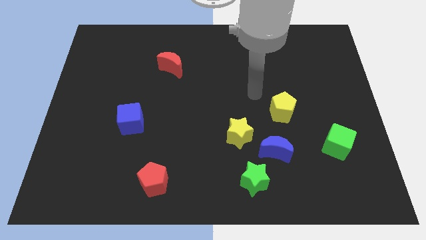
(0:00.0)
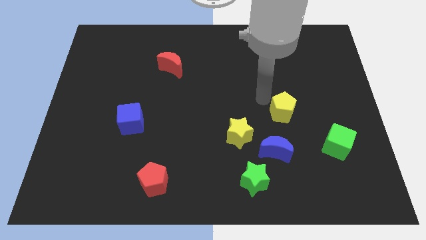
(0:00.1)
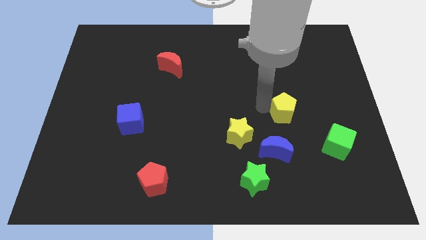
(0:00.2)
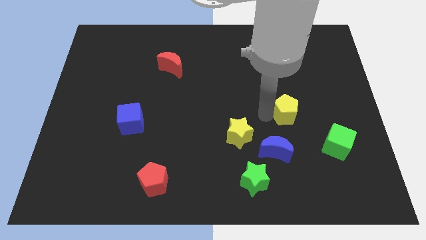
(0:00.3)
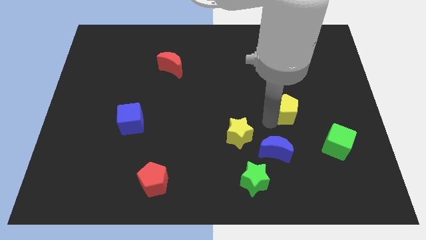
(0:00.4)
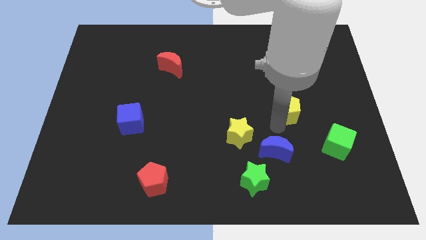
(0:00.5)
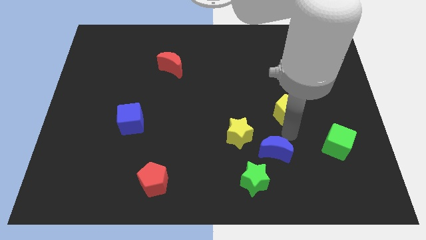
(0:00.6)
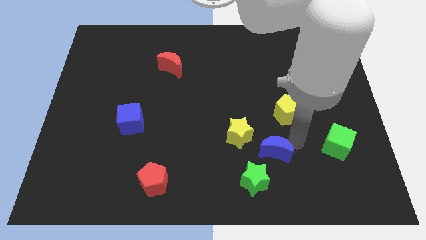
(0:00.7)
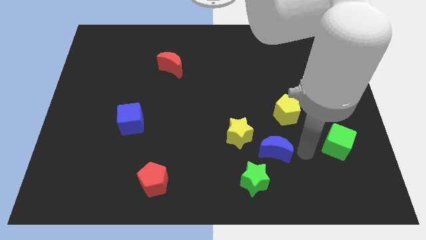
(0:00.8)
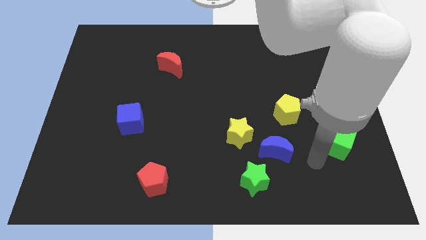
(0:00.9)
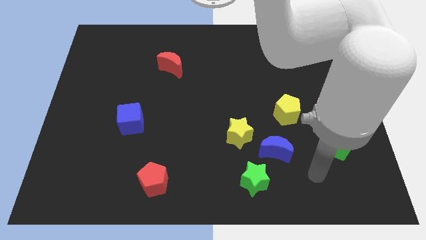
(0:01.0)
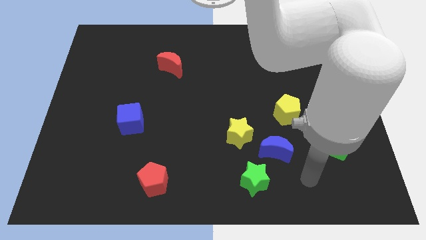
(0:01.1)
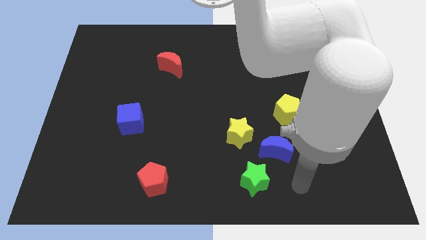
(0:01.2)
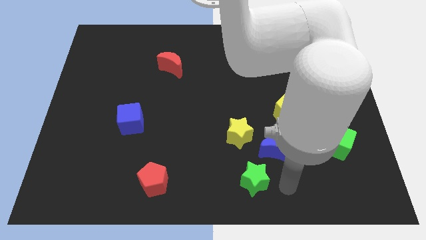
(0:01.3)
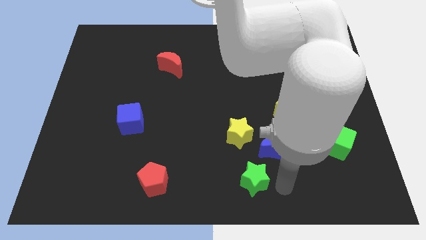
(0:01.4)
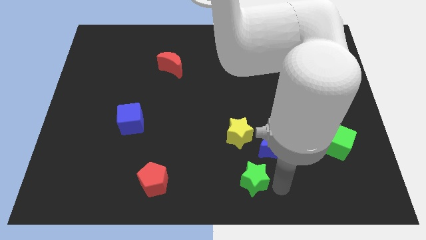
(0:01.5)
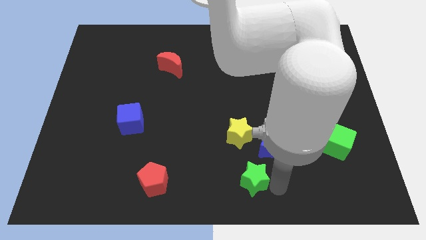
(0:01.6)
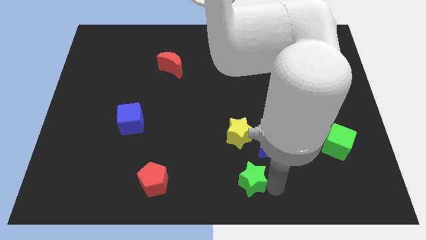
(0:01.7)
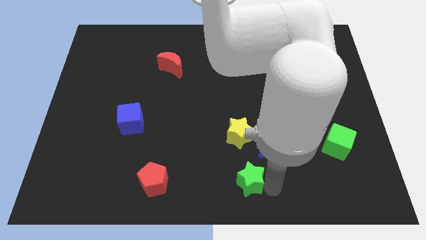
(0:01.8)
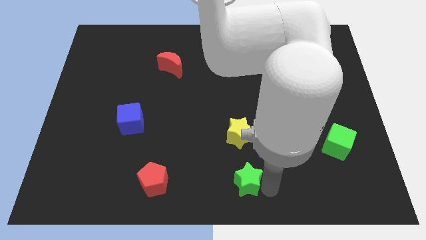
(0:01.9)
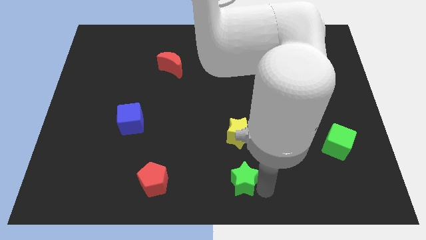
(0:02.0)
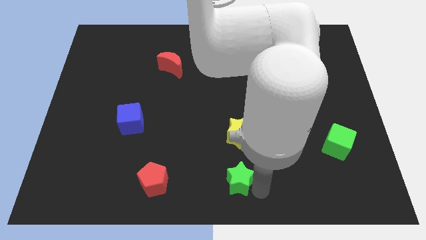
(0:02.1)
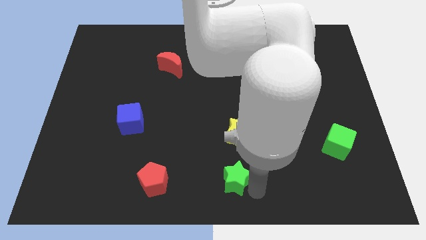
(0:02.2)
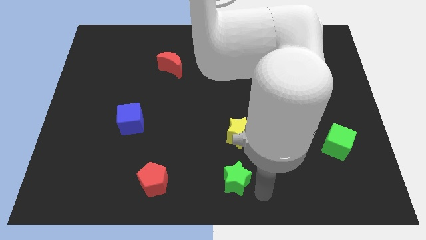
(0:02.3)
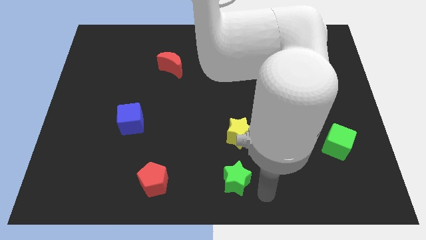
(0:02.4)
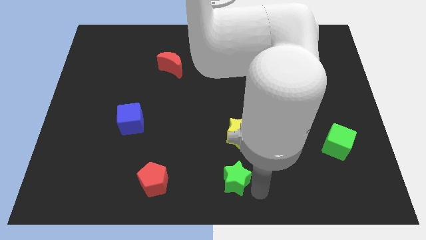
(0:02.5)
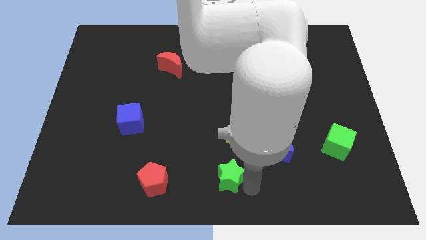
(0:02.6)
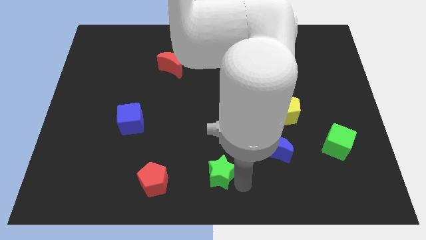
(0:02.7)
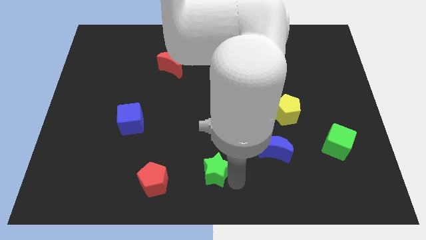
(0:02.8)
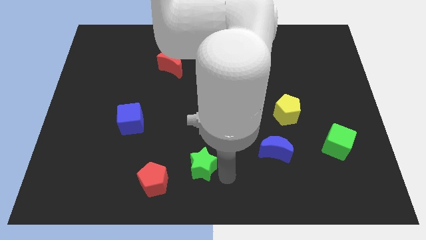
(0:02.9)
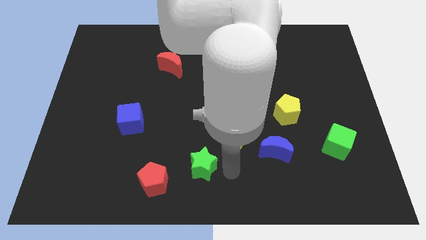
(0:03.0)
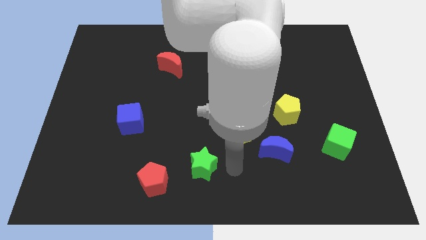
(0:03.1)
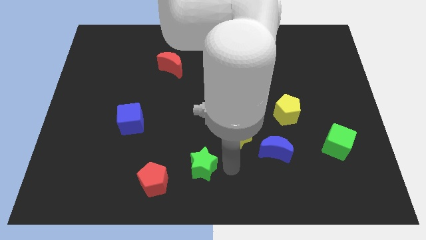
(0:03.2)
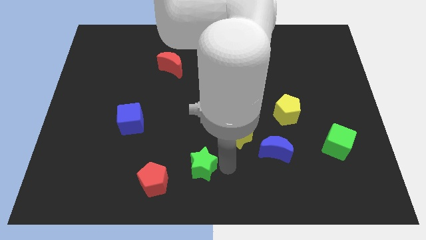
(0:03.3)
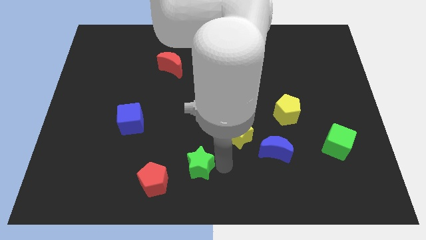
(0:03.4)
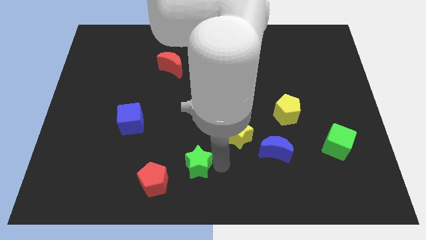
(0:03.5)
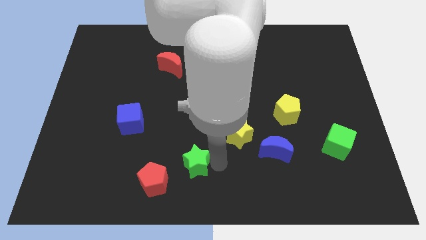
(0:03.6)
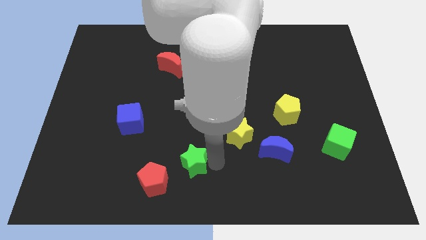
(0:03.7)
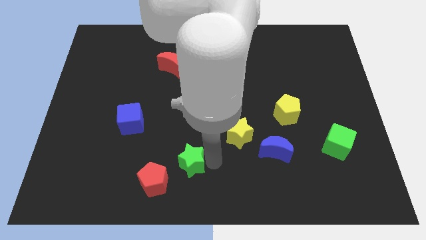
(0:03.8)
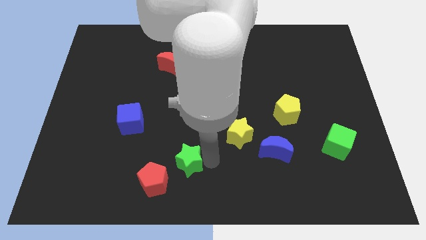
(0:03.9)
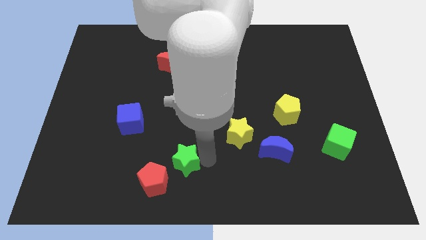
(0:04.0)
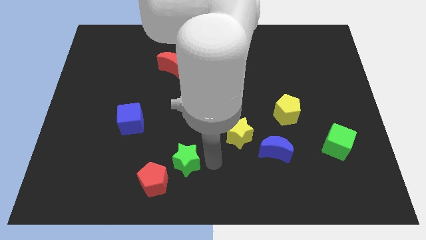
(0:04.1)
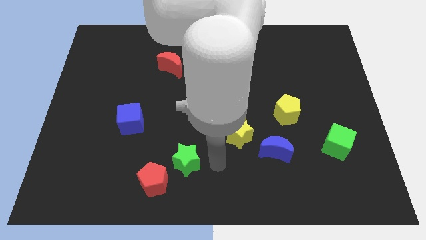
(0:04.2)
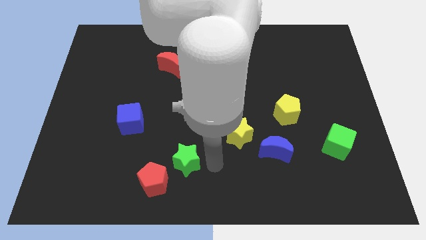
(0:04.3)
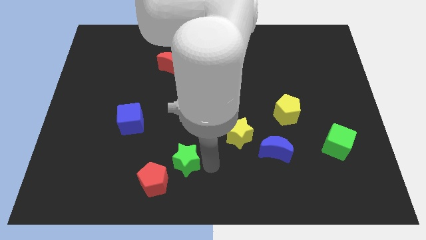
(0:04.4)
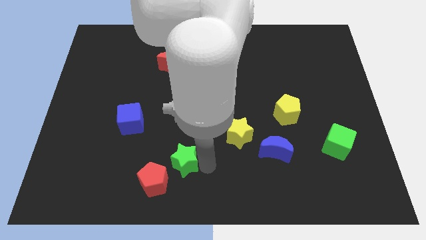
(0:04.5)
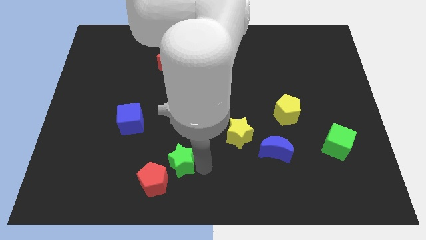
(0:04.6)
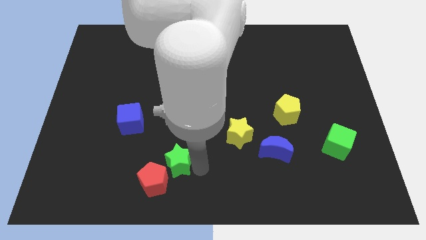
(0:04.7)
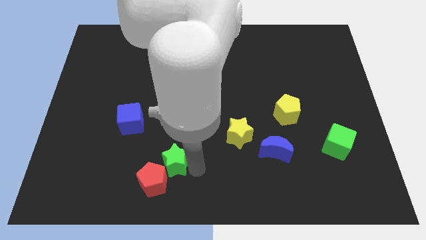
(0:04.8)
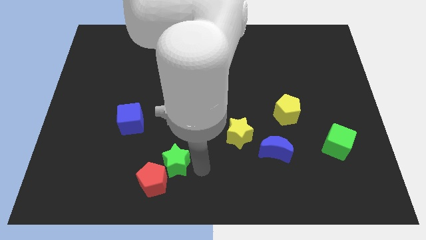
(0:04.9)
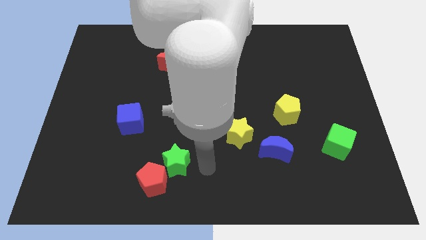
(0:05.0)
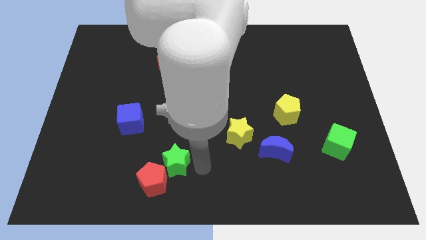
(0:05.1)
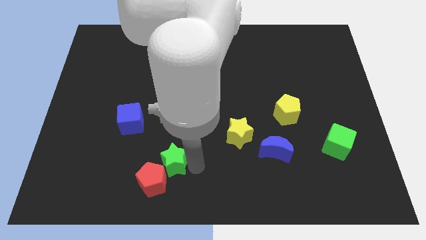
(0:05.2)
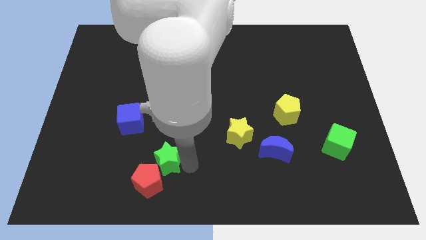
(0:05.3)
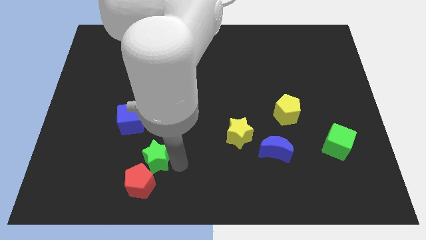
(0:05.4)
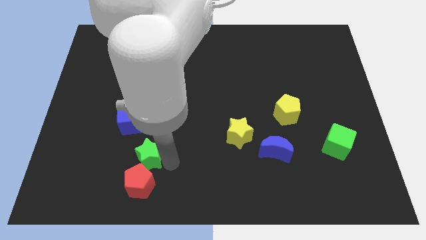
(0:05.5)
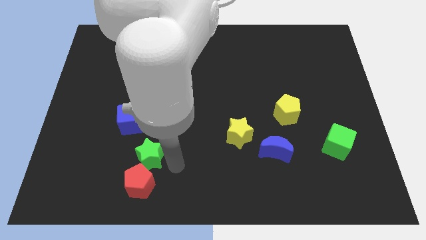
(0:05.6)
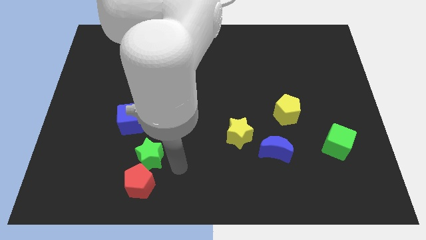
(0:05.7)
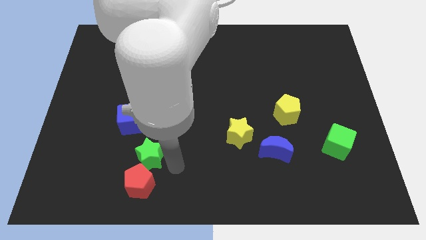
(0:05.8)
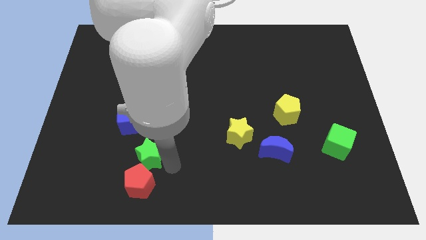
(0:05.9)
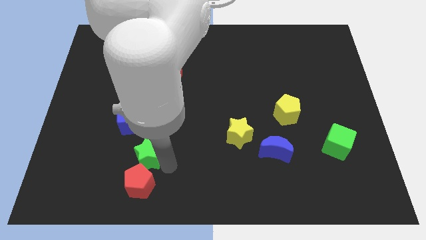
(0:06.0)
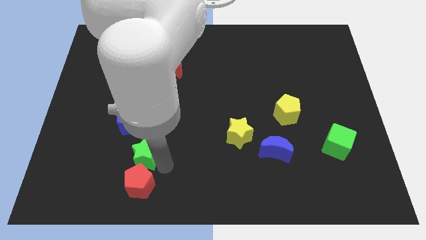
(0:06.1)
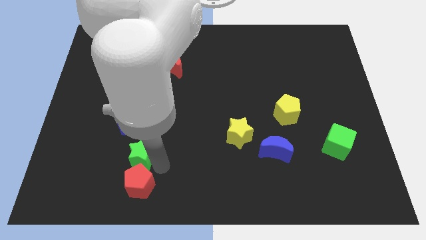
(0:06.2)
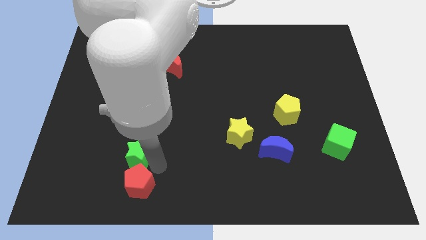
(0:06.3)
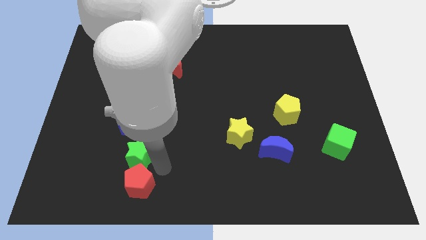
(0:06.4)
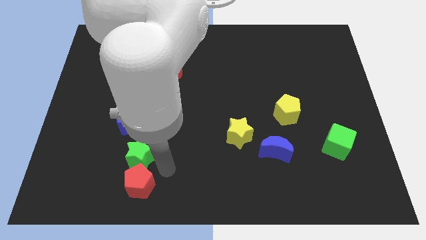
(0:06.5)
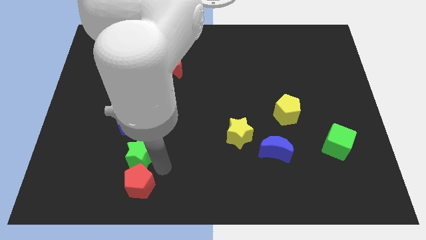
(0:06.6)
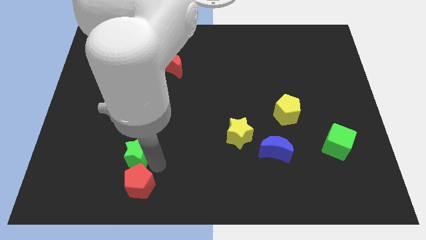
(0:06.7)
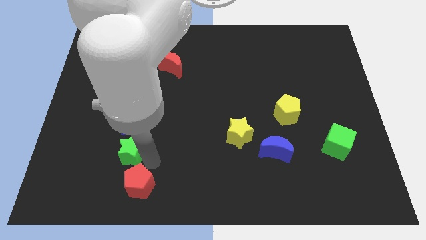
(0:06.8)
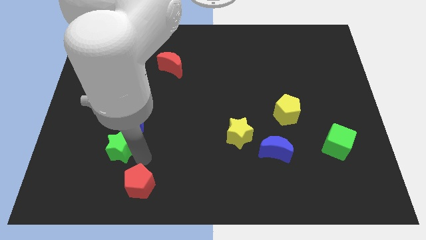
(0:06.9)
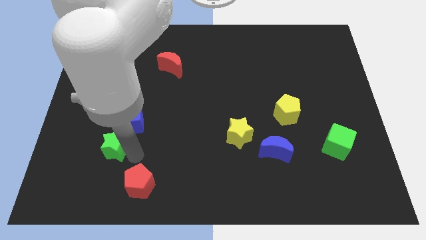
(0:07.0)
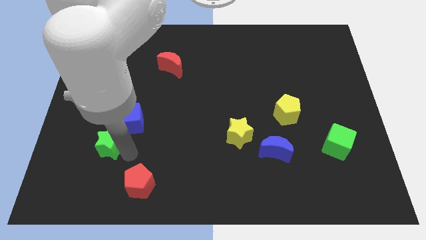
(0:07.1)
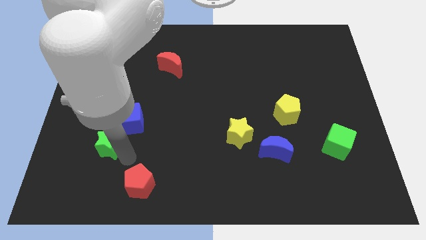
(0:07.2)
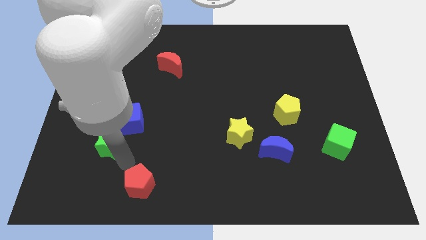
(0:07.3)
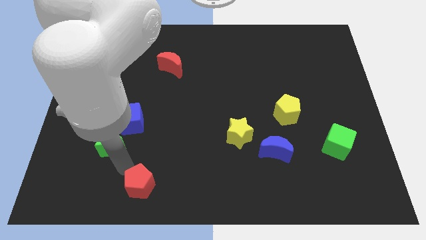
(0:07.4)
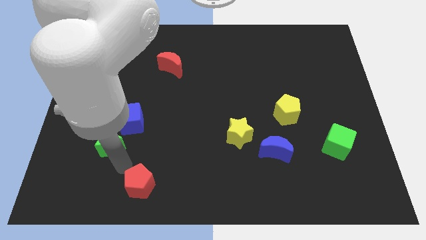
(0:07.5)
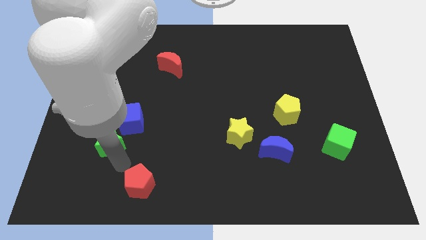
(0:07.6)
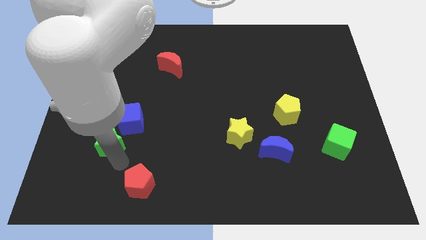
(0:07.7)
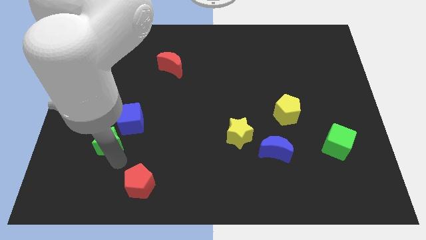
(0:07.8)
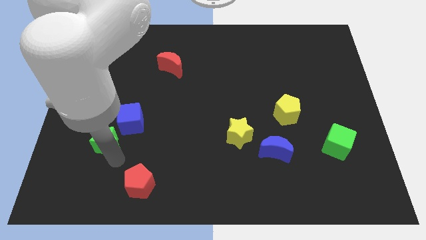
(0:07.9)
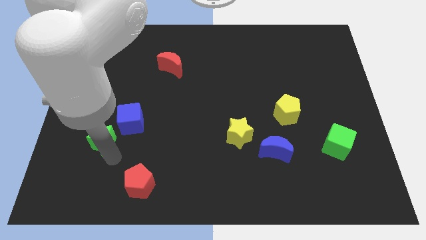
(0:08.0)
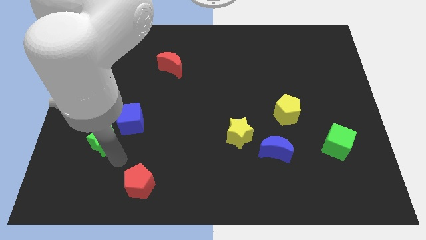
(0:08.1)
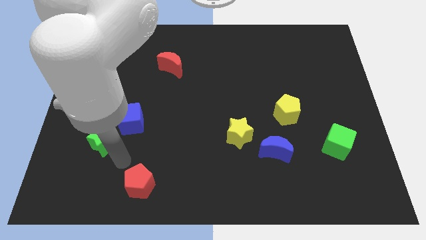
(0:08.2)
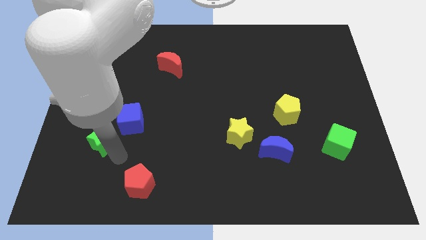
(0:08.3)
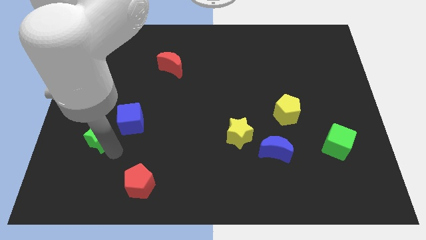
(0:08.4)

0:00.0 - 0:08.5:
slide the green star to the left of the blue cube
